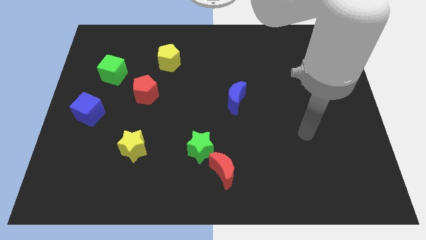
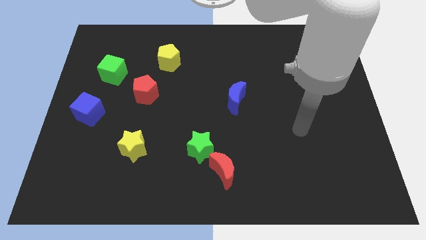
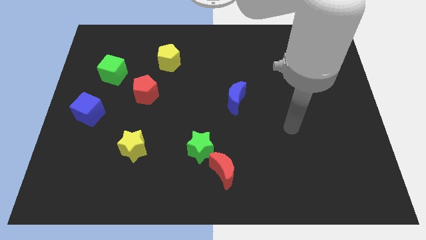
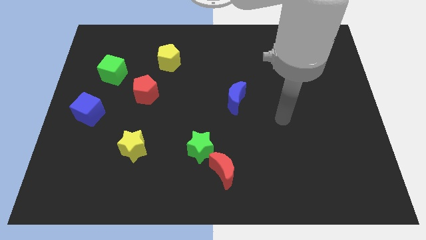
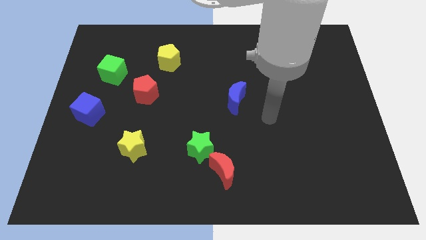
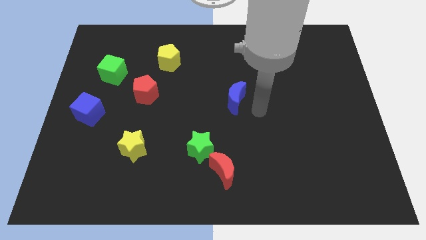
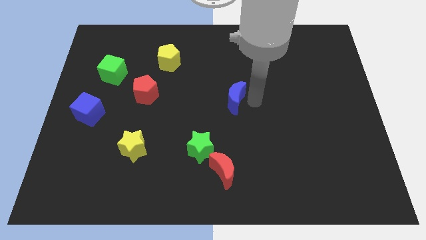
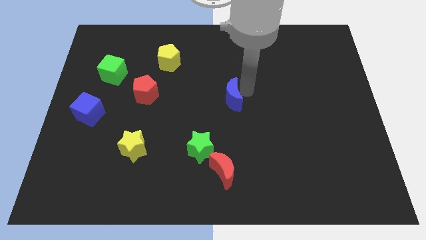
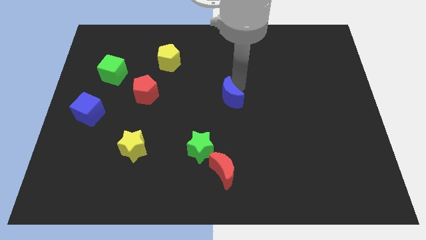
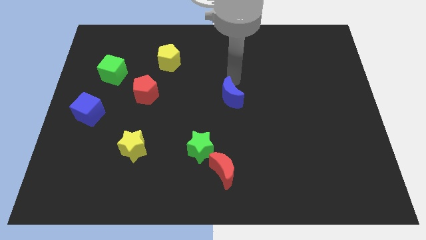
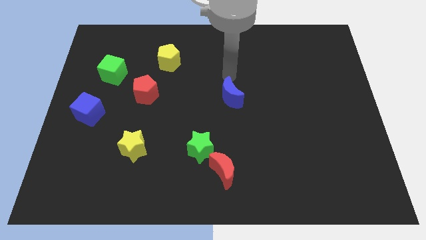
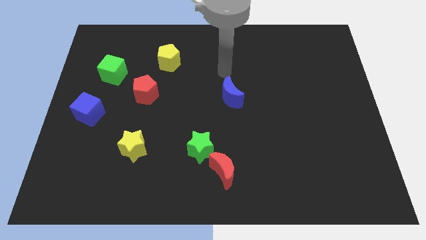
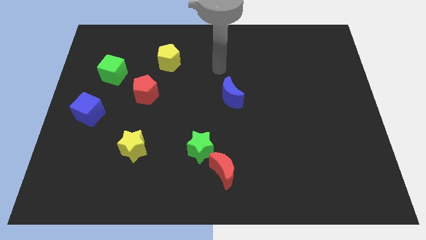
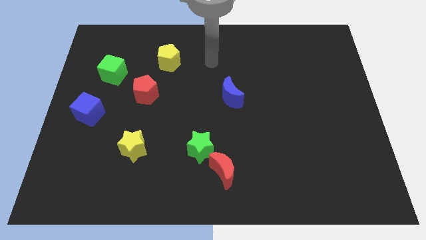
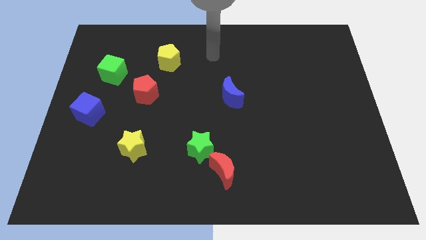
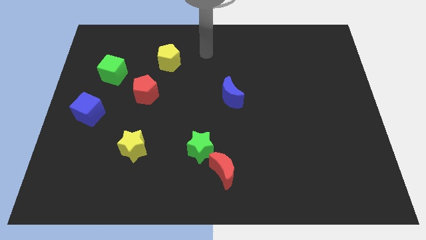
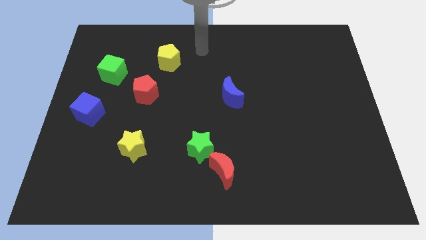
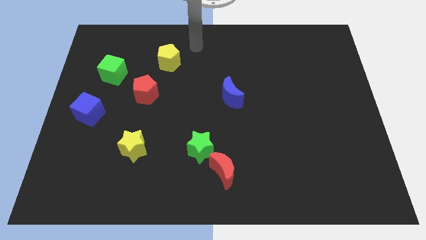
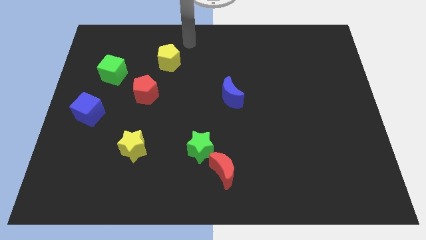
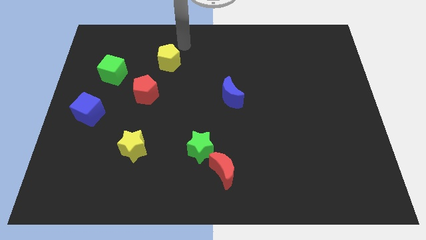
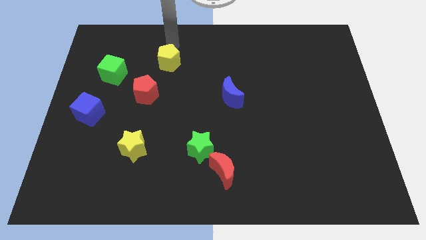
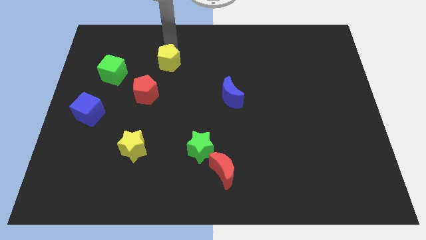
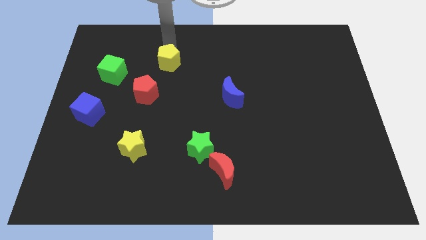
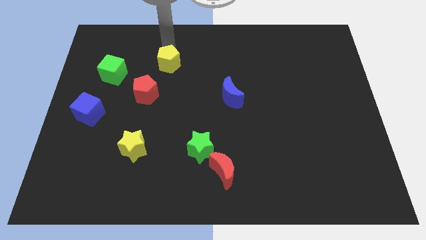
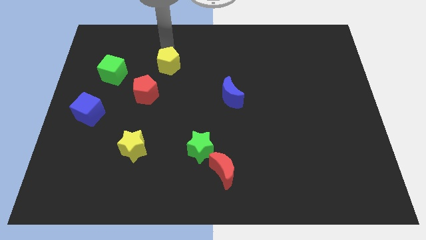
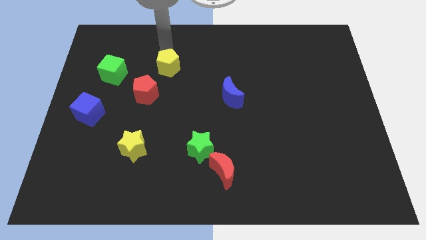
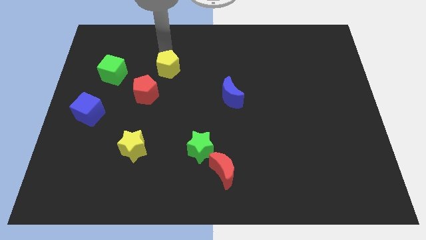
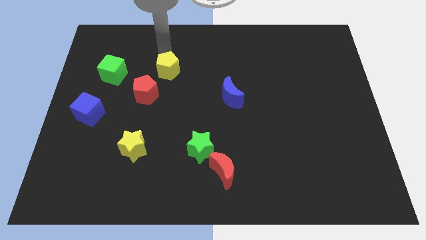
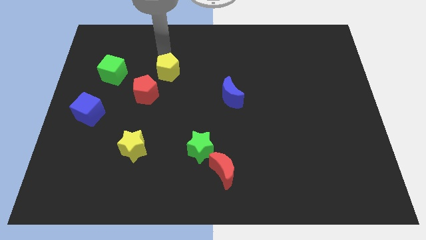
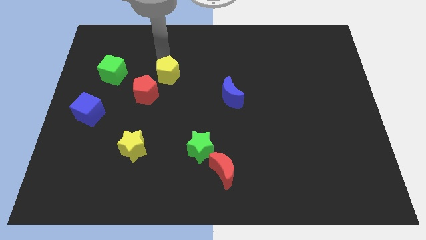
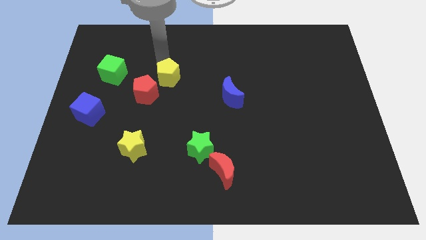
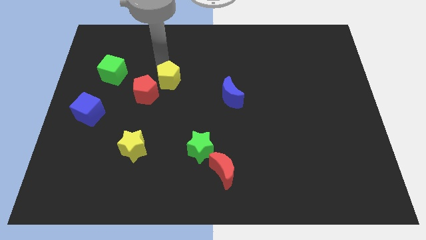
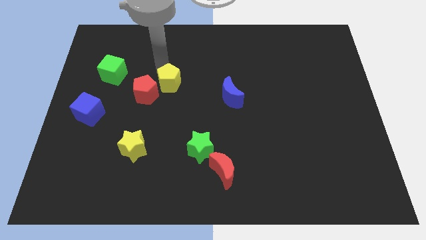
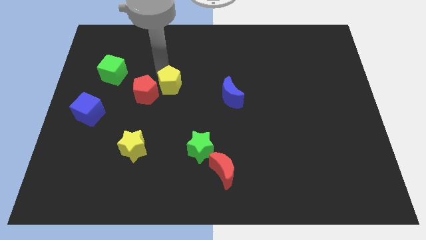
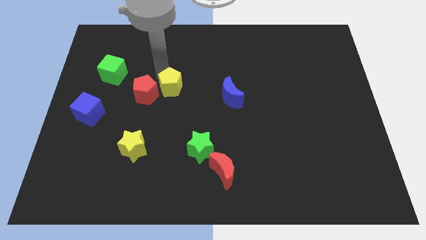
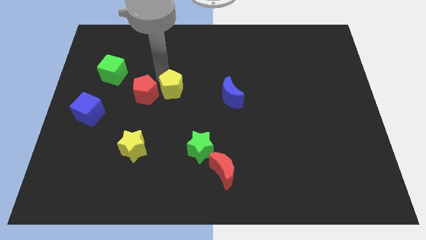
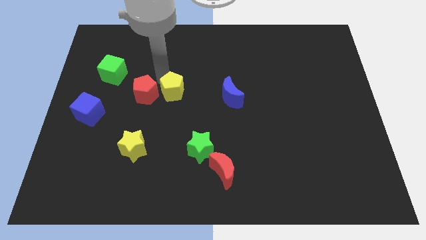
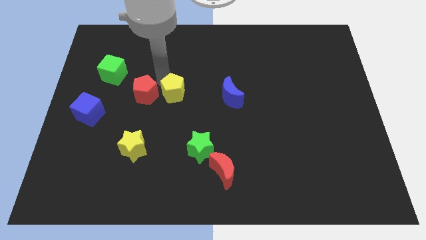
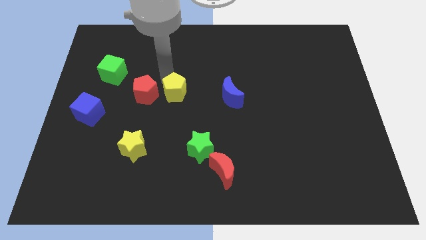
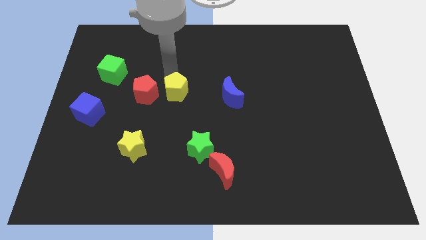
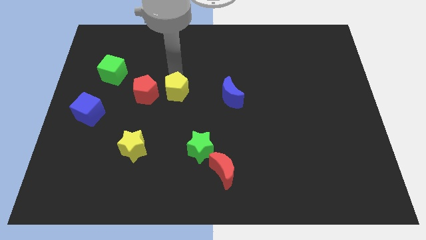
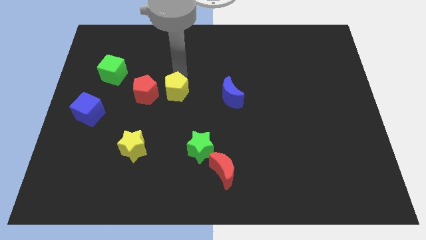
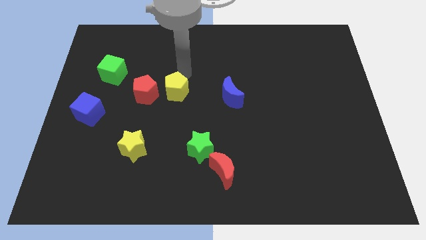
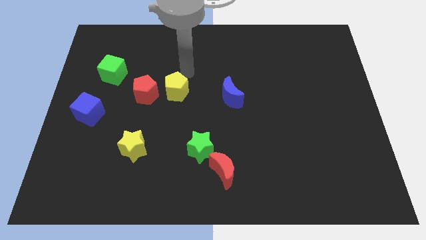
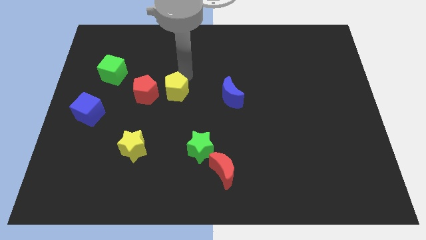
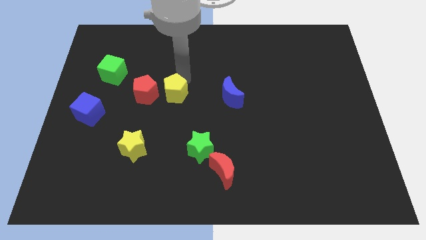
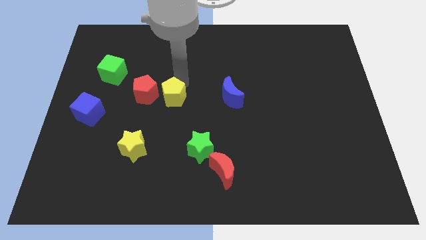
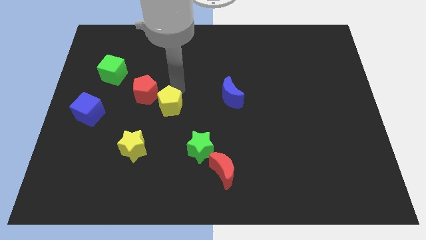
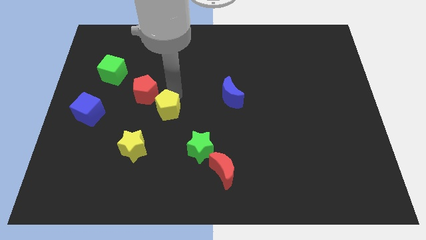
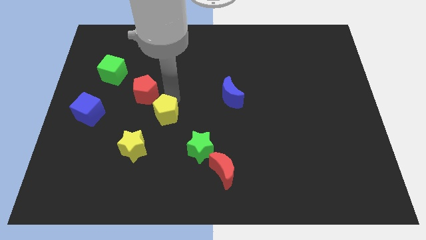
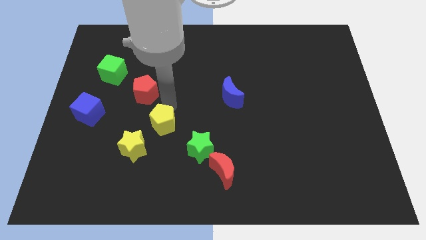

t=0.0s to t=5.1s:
push the yellow pentagon downwards

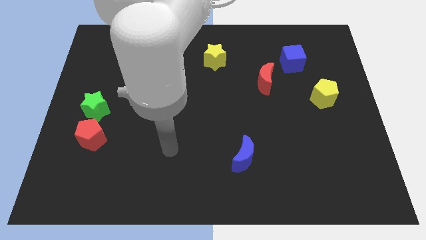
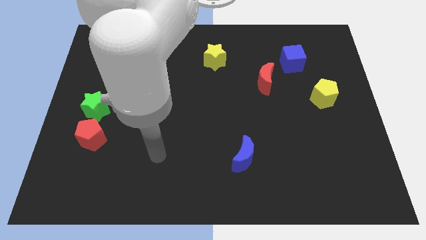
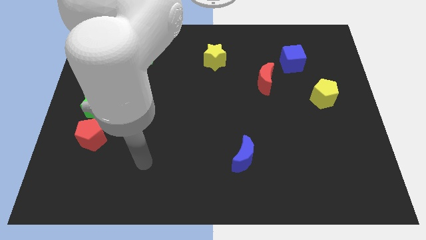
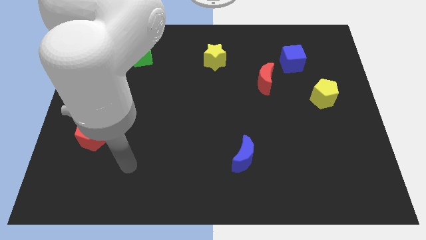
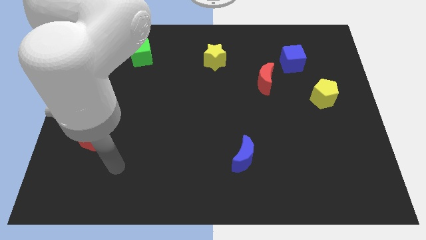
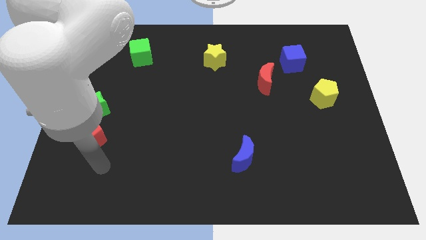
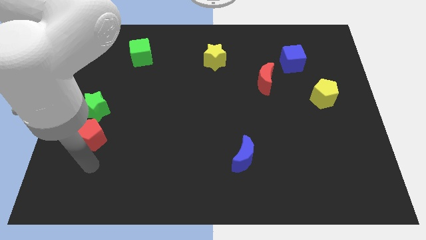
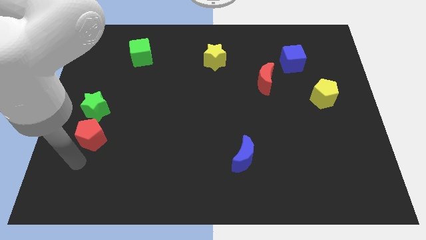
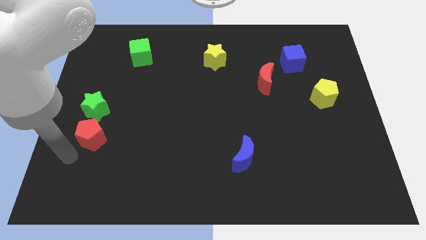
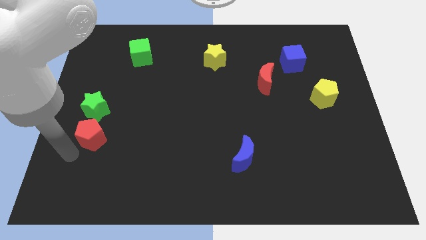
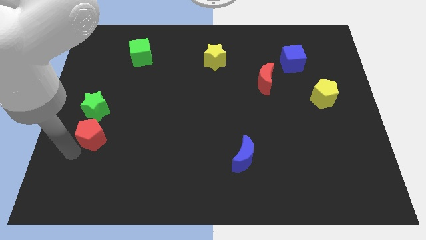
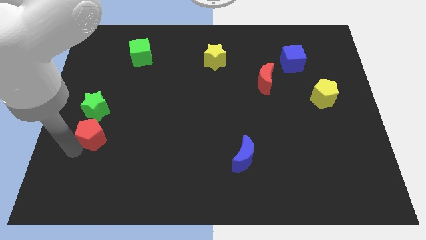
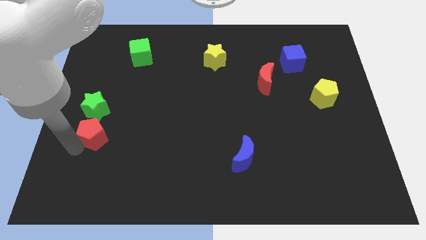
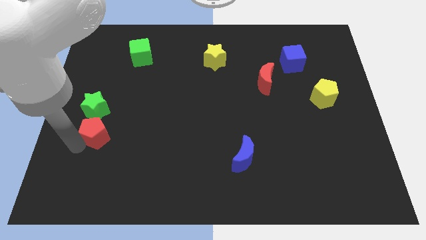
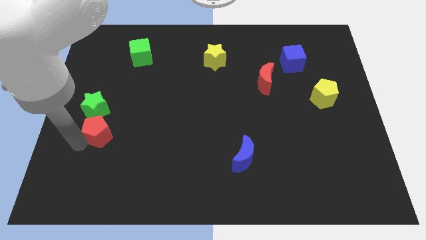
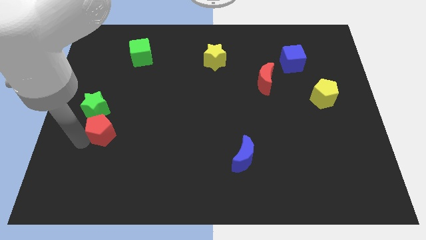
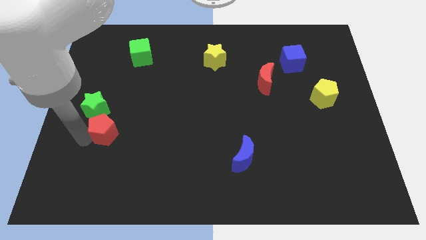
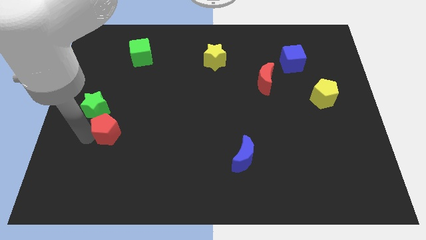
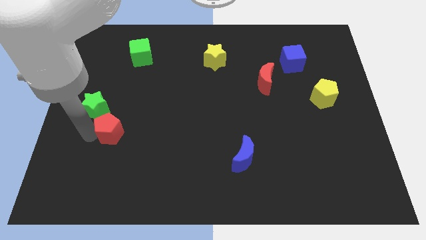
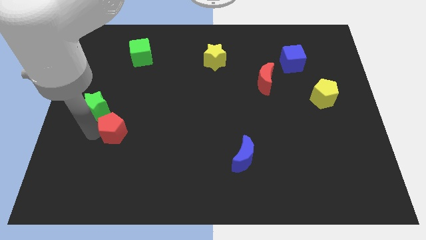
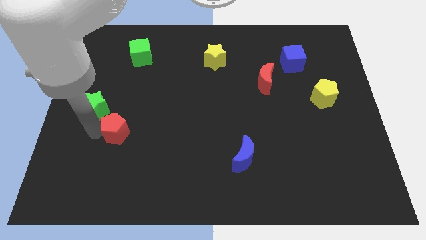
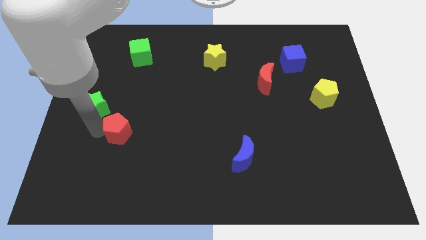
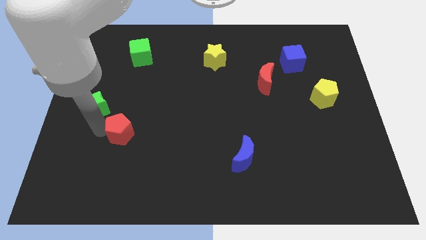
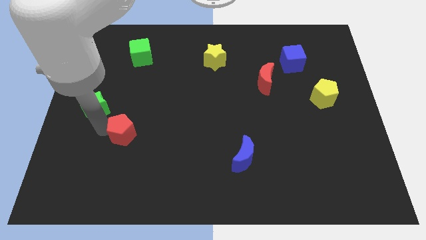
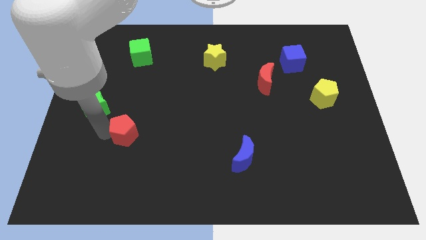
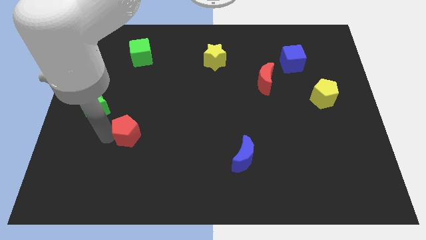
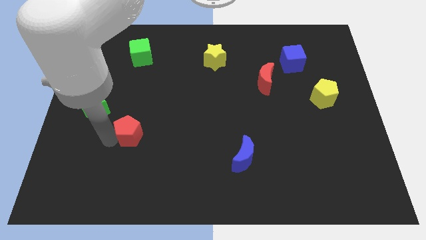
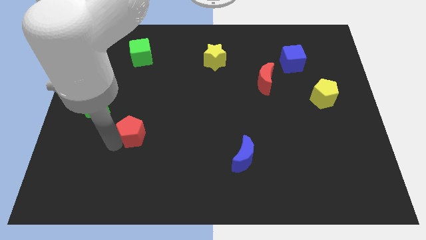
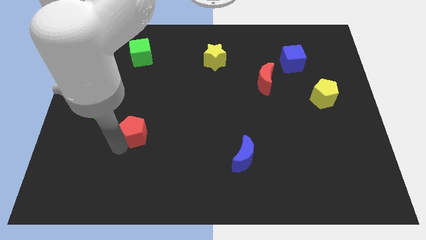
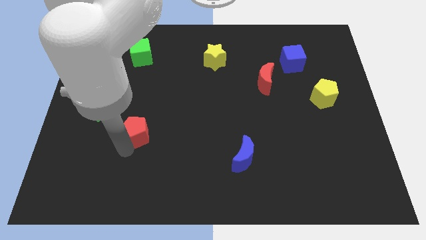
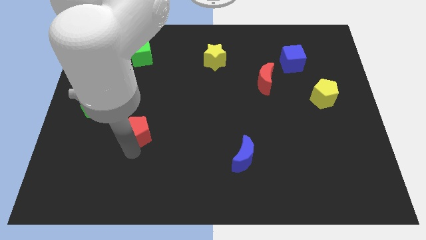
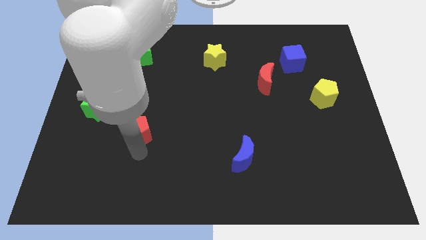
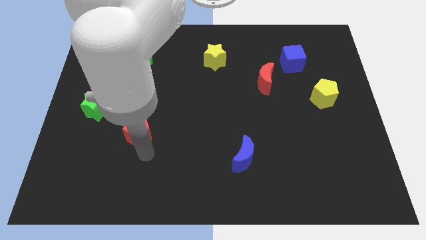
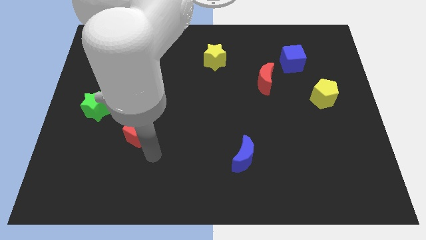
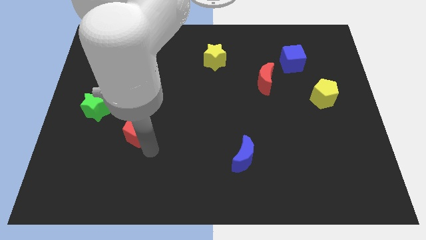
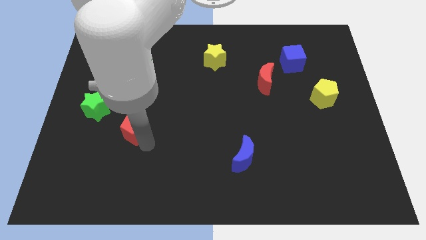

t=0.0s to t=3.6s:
slide the red pentagon a bit upwards and right diagonally
